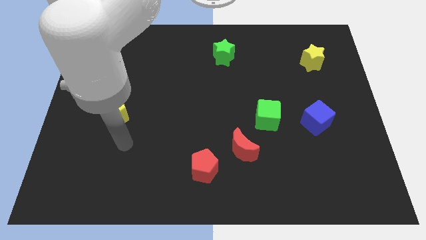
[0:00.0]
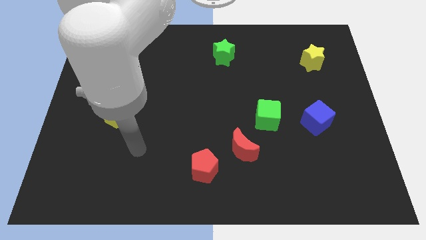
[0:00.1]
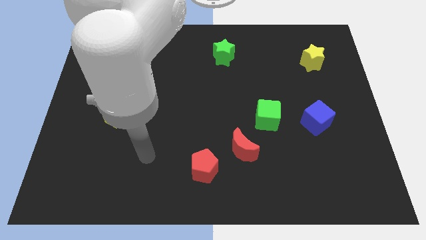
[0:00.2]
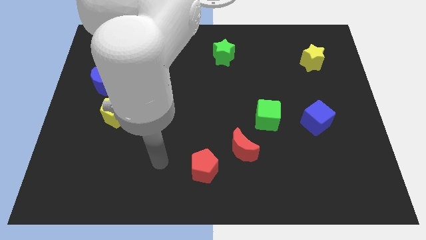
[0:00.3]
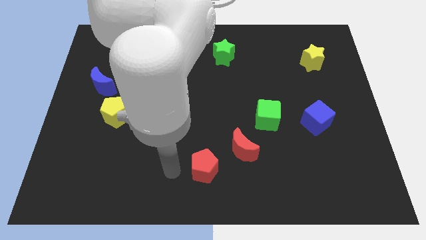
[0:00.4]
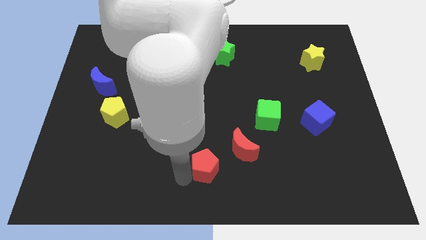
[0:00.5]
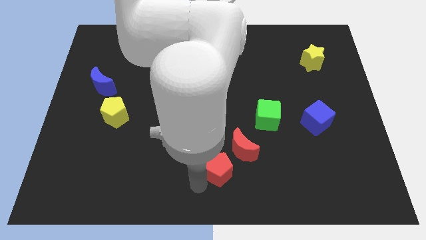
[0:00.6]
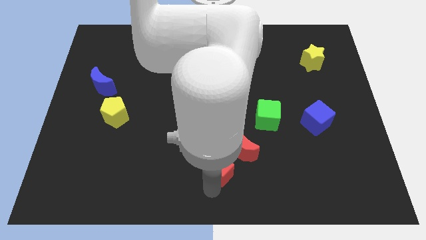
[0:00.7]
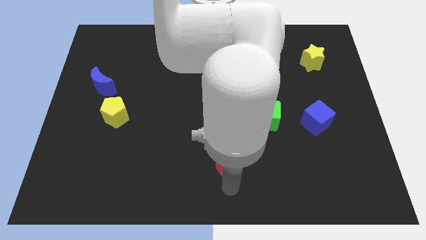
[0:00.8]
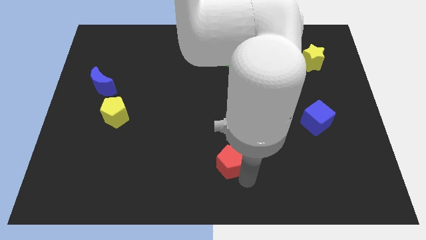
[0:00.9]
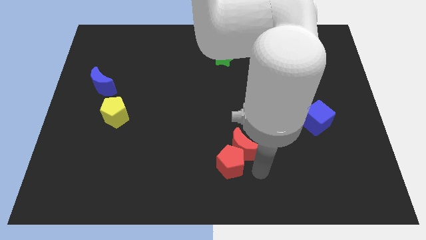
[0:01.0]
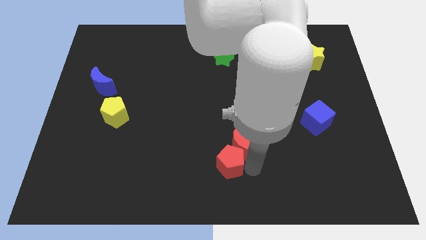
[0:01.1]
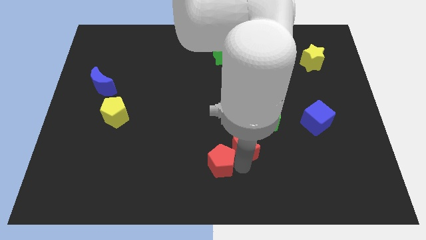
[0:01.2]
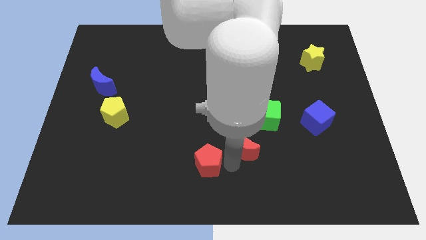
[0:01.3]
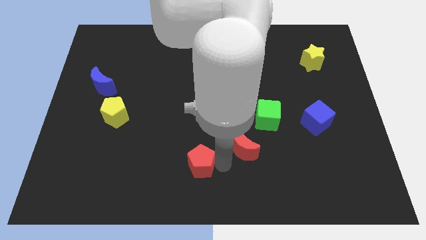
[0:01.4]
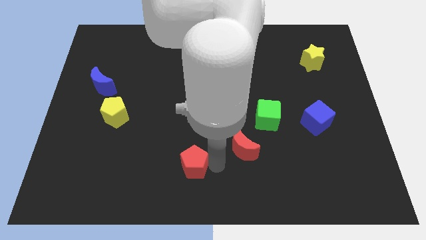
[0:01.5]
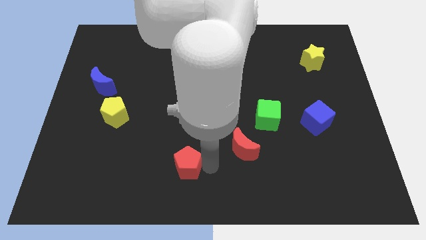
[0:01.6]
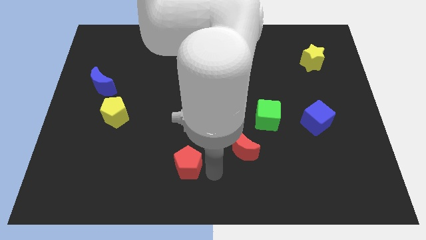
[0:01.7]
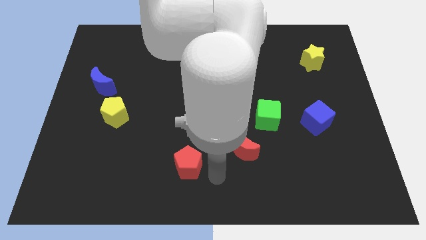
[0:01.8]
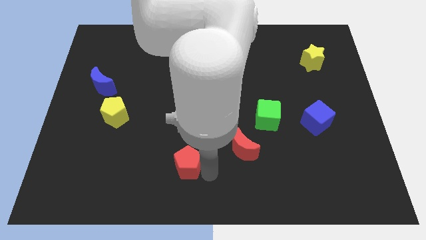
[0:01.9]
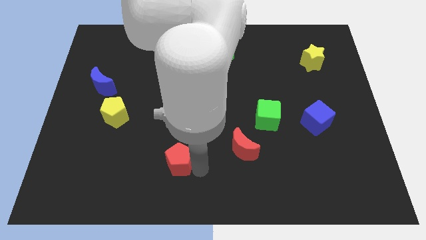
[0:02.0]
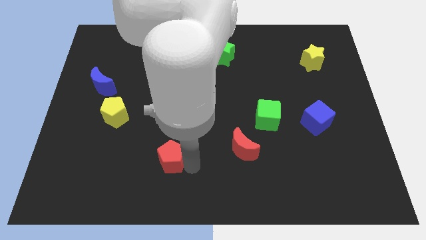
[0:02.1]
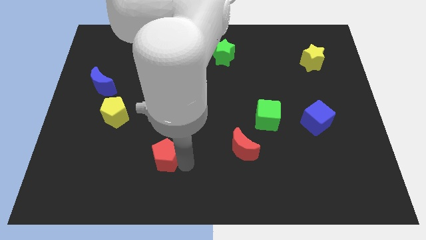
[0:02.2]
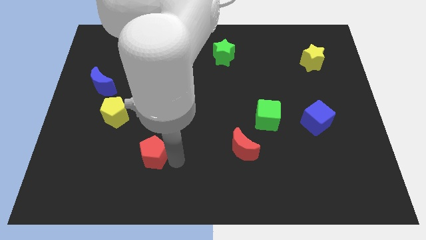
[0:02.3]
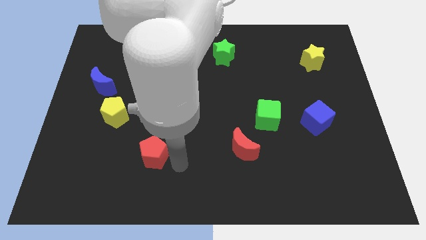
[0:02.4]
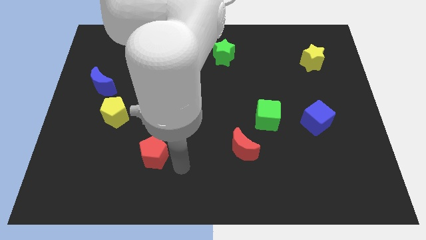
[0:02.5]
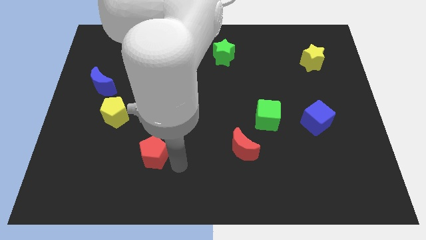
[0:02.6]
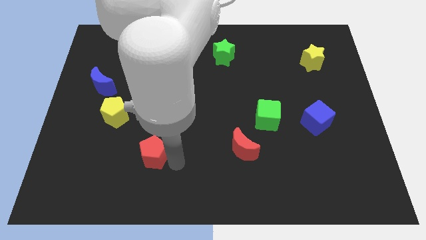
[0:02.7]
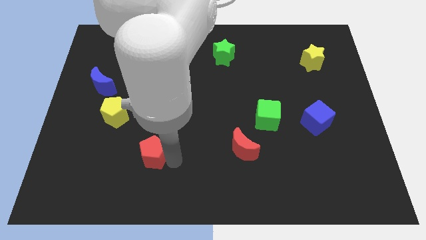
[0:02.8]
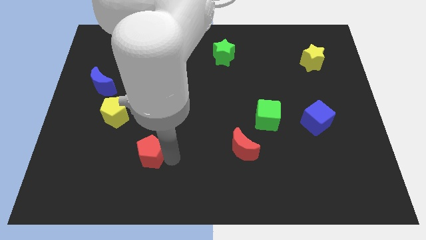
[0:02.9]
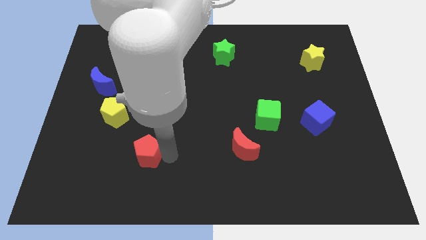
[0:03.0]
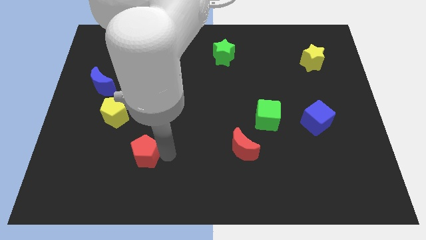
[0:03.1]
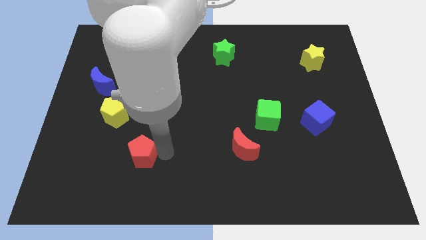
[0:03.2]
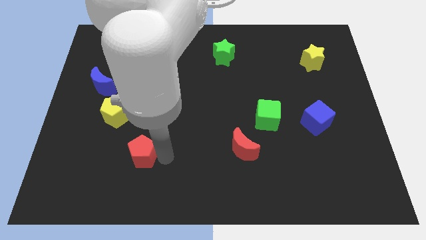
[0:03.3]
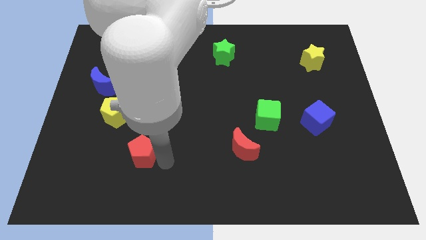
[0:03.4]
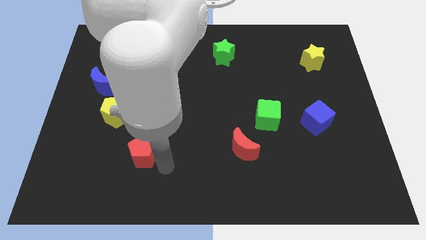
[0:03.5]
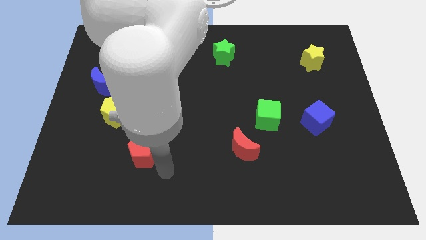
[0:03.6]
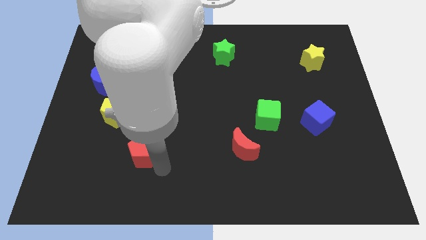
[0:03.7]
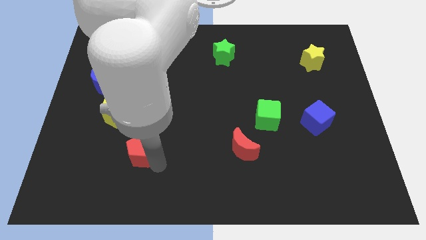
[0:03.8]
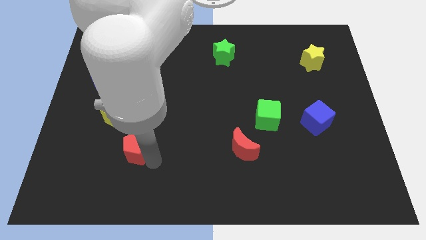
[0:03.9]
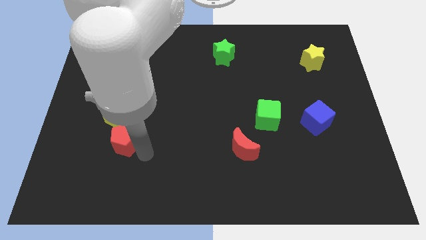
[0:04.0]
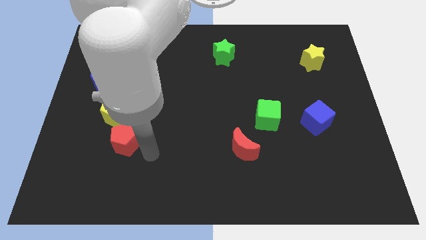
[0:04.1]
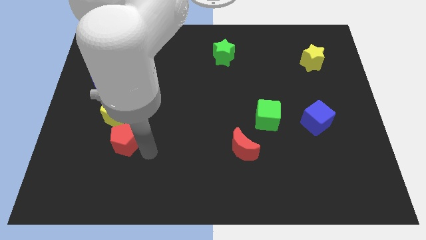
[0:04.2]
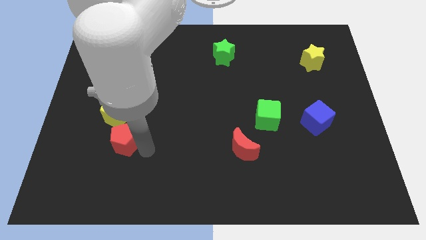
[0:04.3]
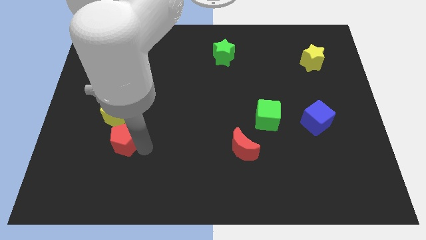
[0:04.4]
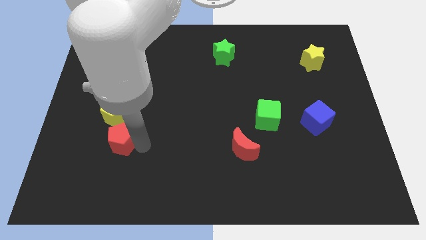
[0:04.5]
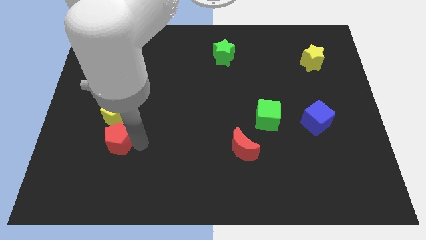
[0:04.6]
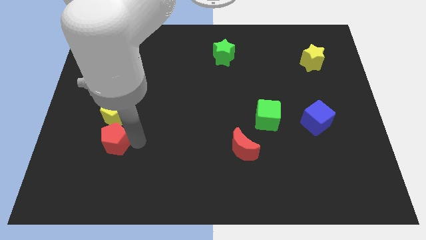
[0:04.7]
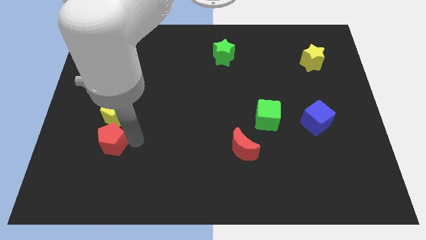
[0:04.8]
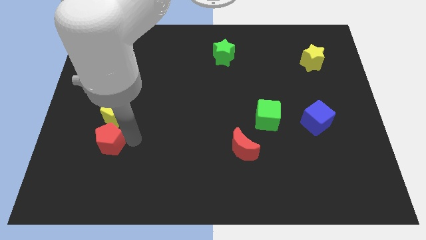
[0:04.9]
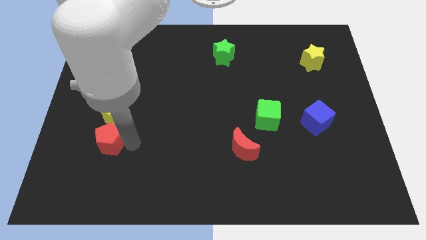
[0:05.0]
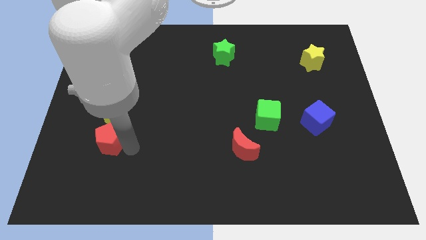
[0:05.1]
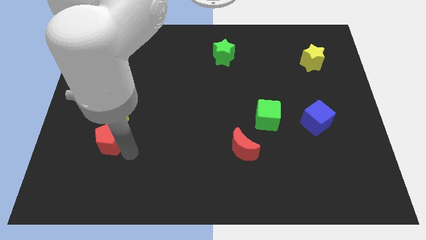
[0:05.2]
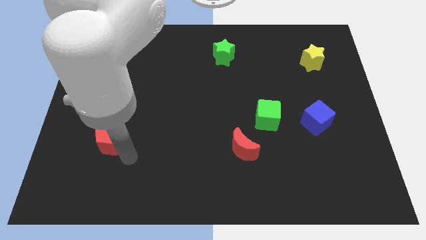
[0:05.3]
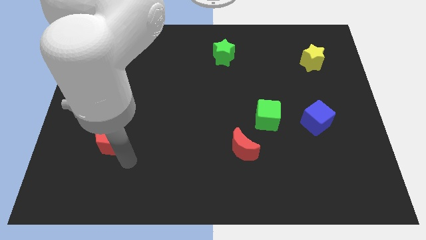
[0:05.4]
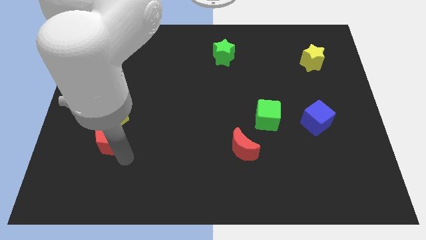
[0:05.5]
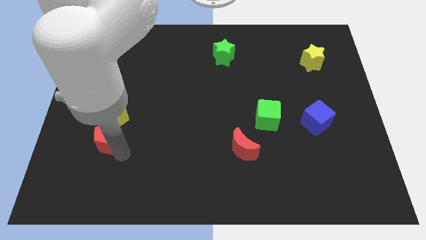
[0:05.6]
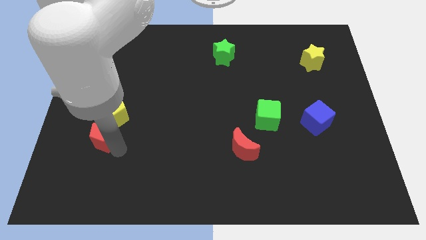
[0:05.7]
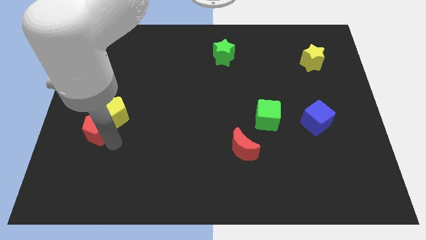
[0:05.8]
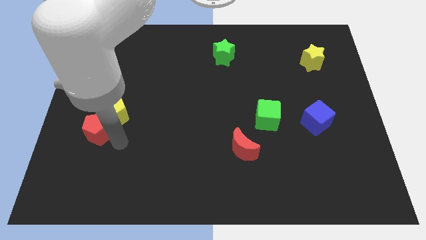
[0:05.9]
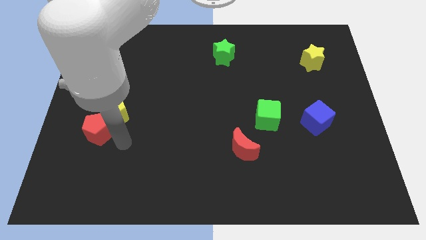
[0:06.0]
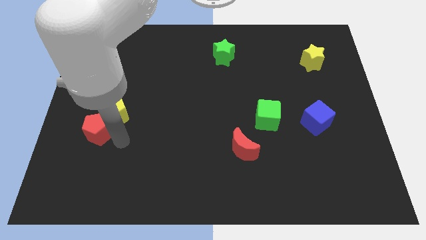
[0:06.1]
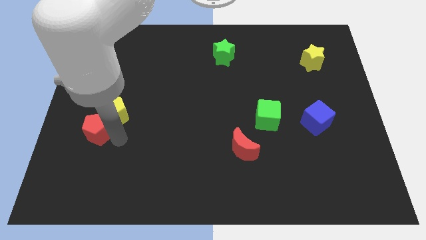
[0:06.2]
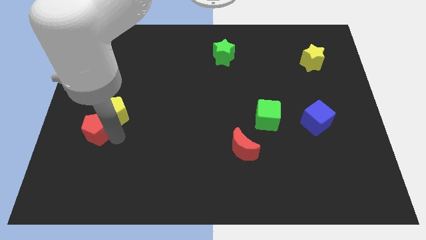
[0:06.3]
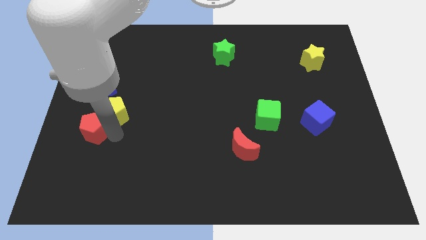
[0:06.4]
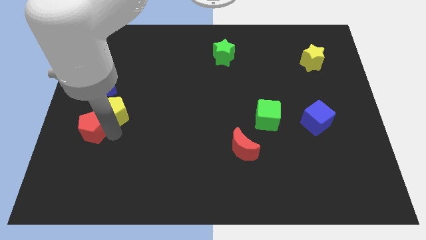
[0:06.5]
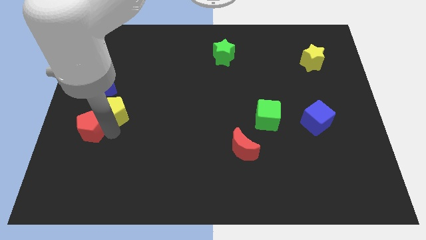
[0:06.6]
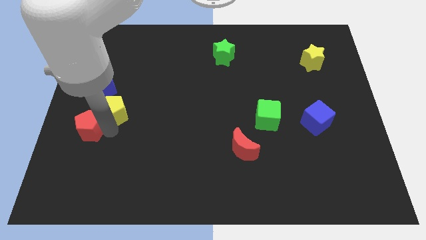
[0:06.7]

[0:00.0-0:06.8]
put the red pentagon to the left side
